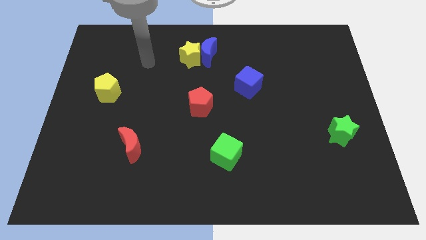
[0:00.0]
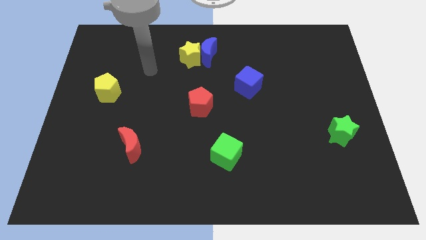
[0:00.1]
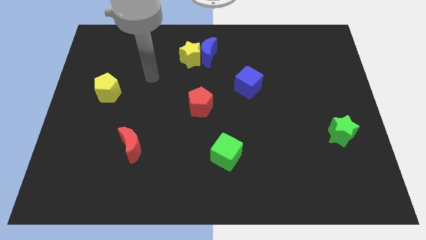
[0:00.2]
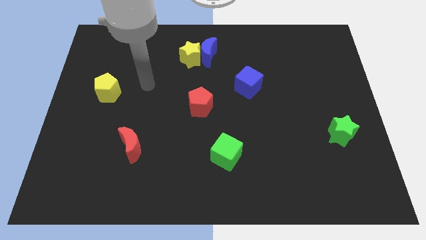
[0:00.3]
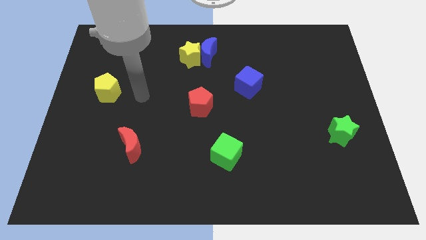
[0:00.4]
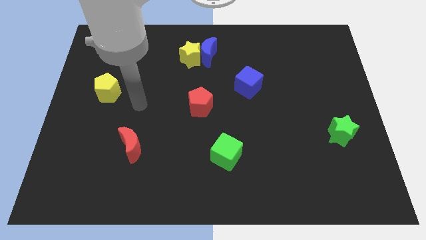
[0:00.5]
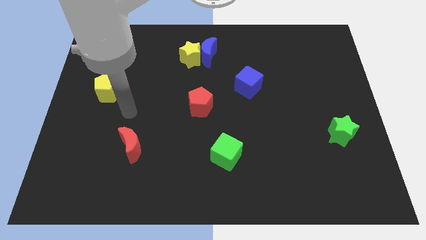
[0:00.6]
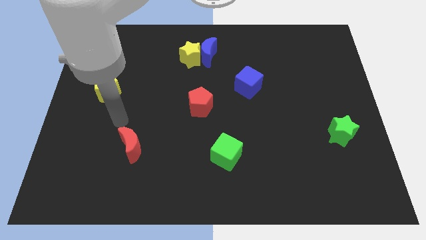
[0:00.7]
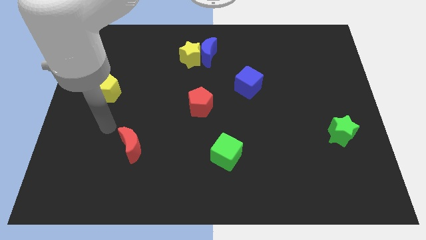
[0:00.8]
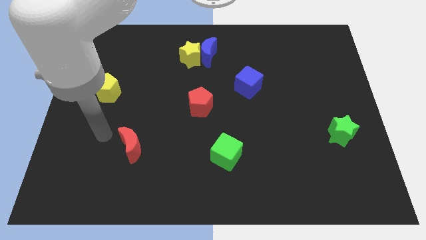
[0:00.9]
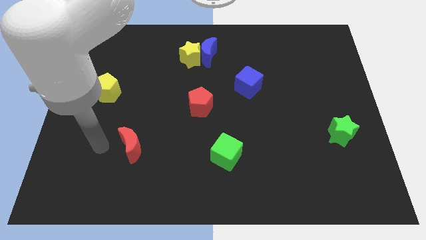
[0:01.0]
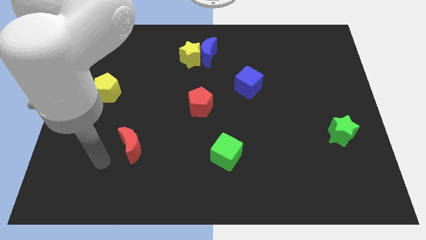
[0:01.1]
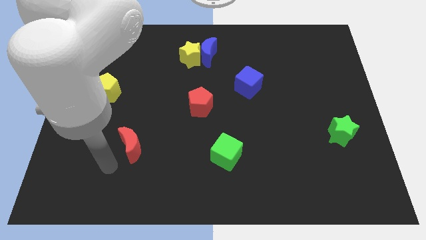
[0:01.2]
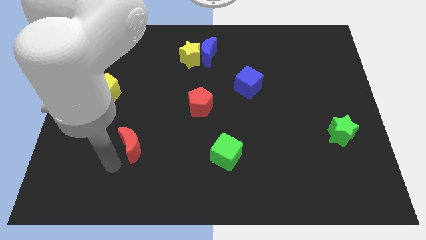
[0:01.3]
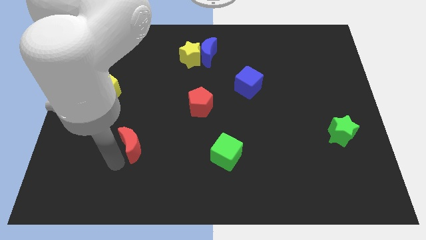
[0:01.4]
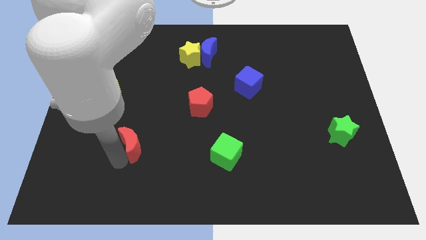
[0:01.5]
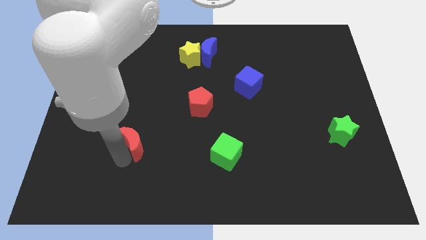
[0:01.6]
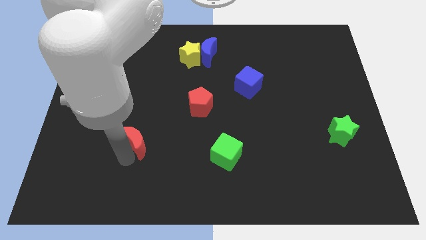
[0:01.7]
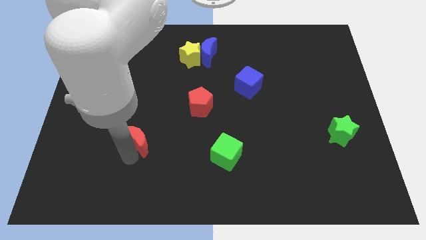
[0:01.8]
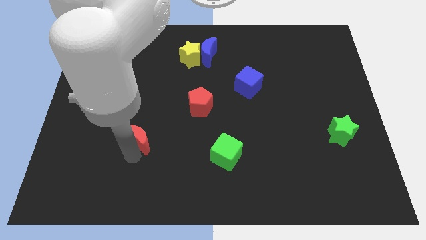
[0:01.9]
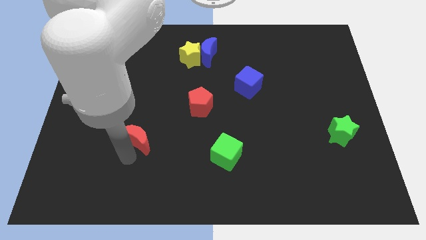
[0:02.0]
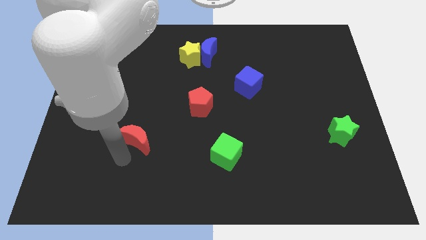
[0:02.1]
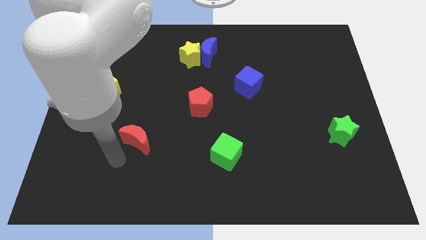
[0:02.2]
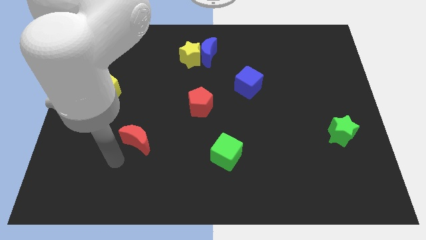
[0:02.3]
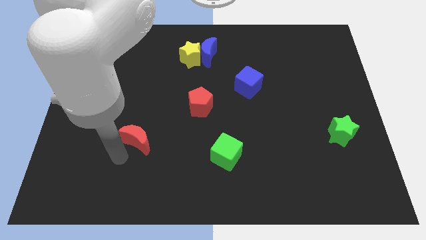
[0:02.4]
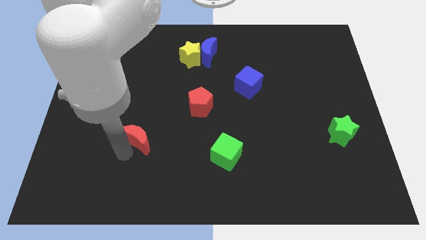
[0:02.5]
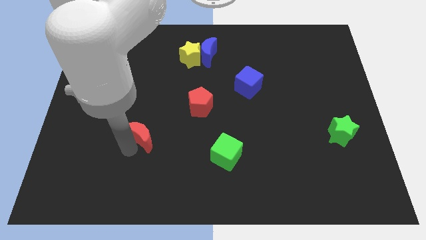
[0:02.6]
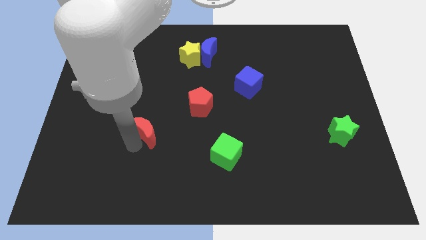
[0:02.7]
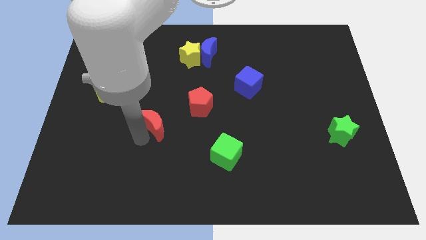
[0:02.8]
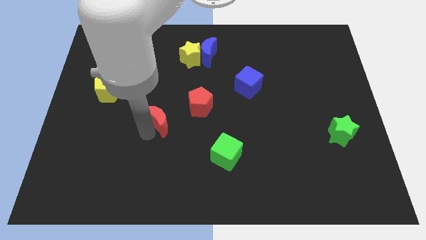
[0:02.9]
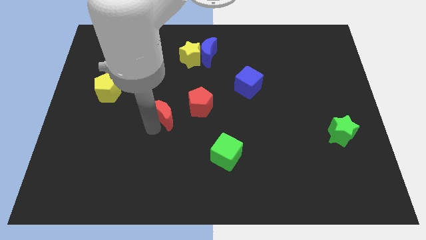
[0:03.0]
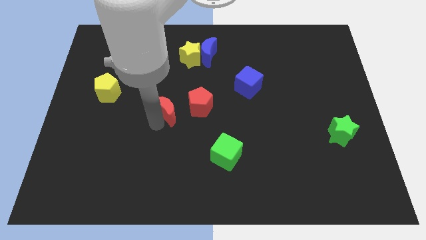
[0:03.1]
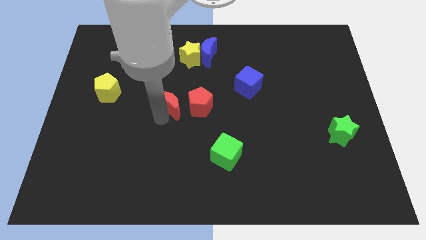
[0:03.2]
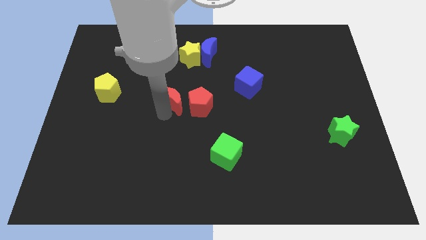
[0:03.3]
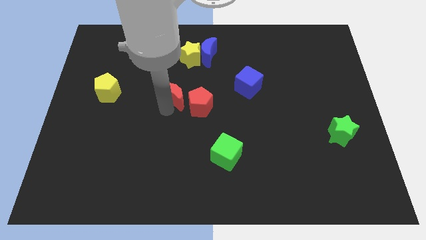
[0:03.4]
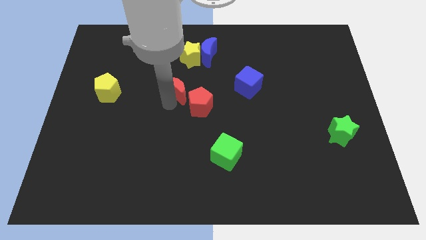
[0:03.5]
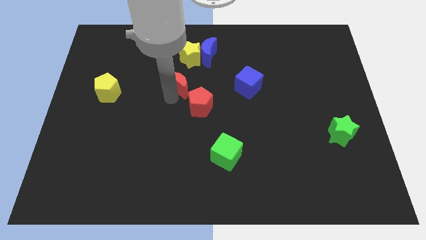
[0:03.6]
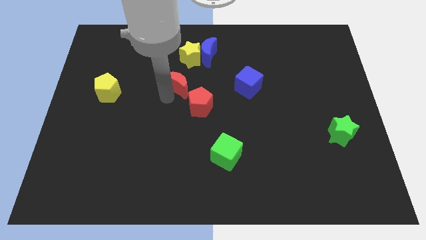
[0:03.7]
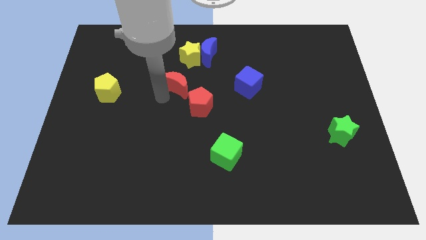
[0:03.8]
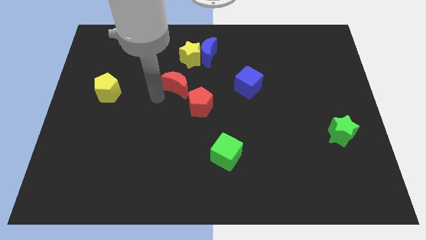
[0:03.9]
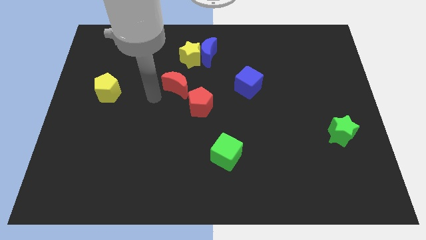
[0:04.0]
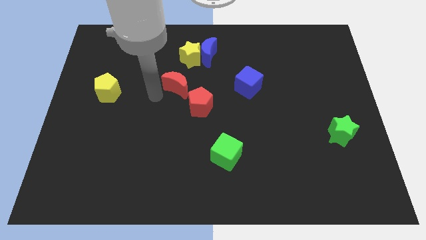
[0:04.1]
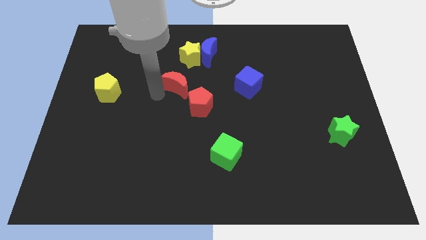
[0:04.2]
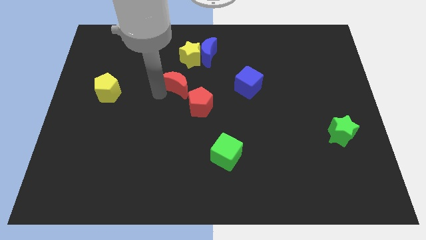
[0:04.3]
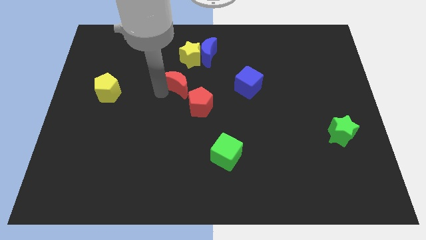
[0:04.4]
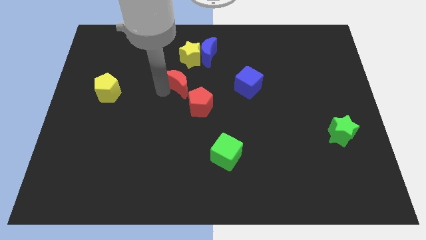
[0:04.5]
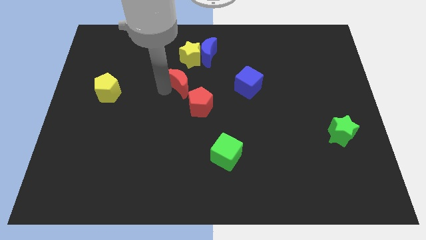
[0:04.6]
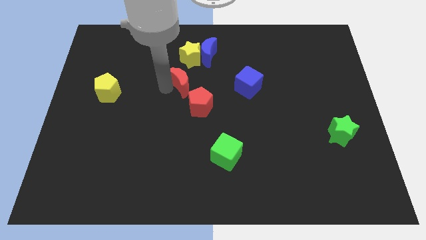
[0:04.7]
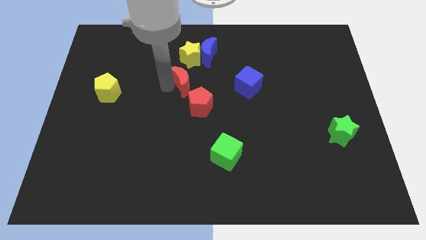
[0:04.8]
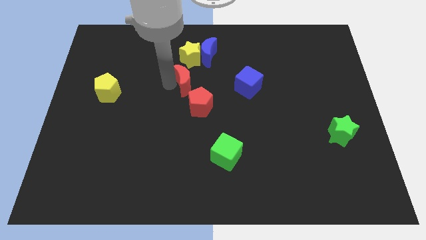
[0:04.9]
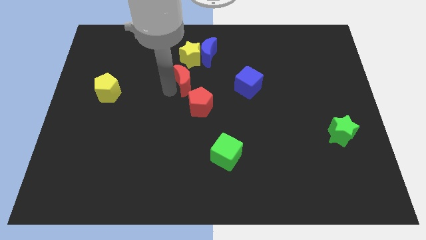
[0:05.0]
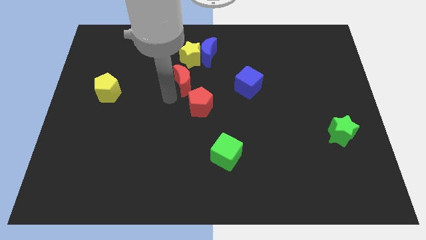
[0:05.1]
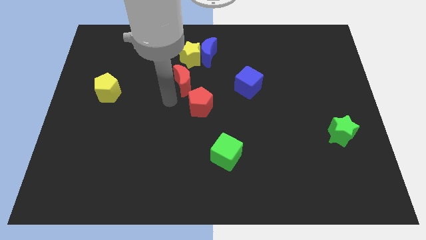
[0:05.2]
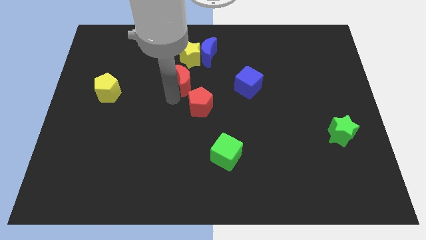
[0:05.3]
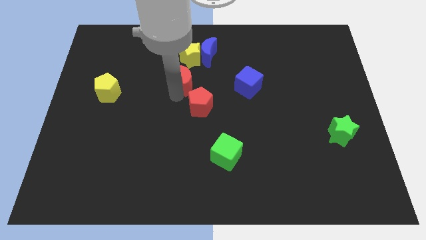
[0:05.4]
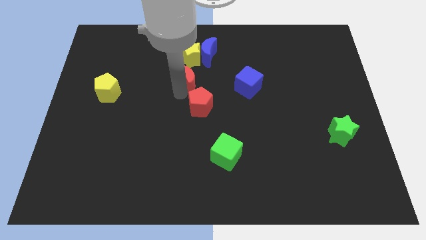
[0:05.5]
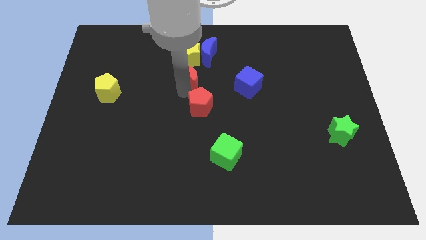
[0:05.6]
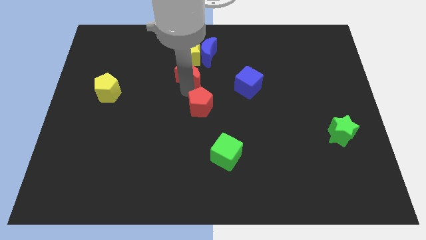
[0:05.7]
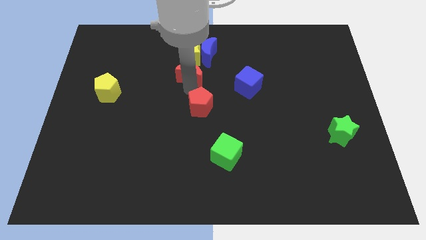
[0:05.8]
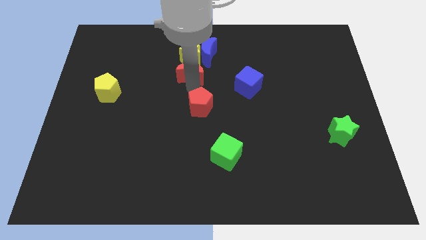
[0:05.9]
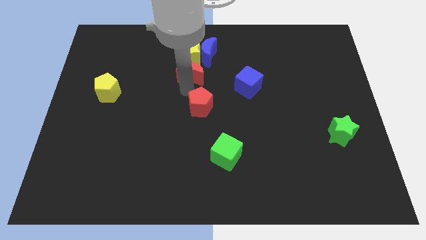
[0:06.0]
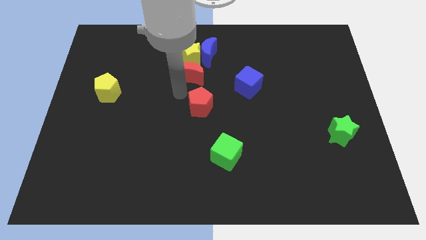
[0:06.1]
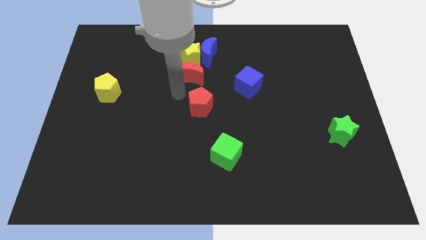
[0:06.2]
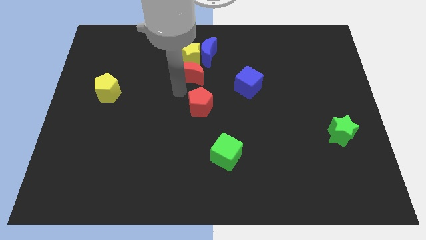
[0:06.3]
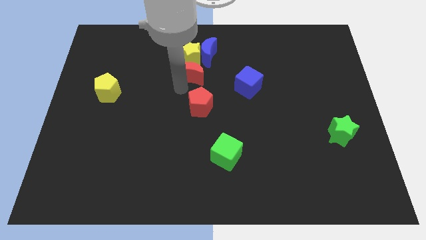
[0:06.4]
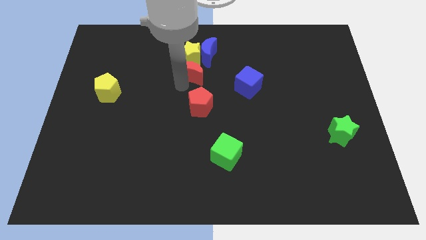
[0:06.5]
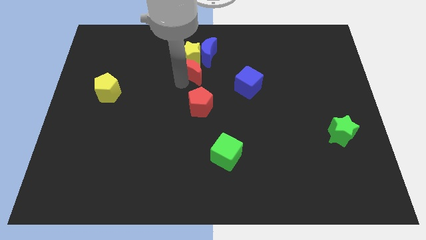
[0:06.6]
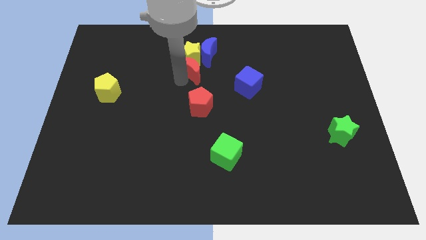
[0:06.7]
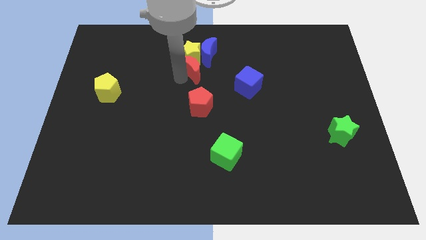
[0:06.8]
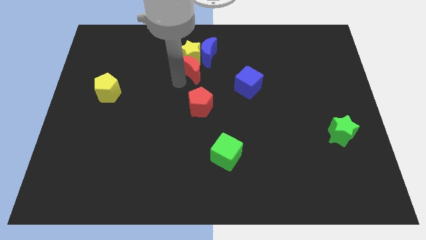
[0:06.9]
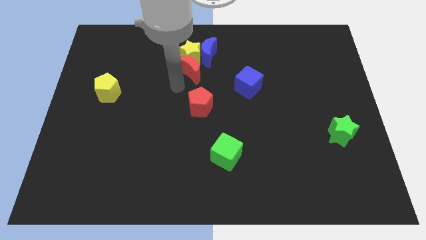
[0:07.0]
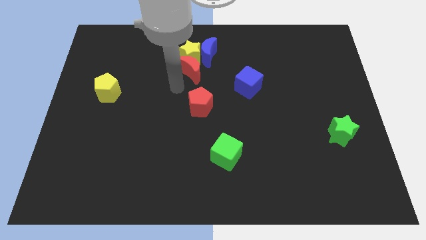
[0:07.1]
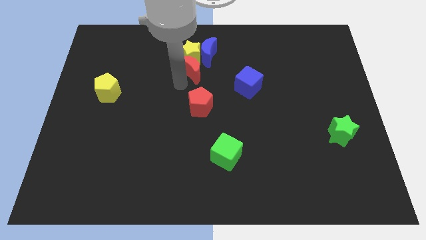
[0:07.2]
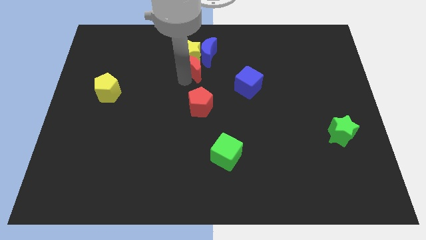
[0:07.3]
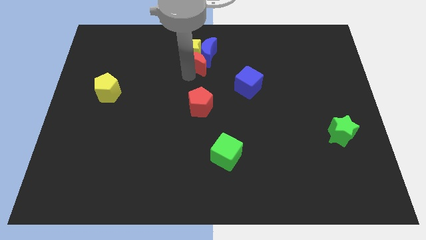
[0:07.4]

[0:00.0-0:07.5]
move the red moon to the blue moon
